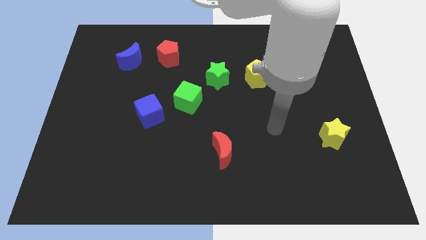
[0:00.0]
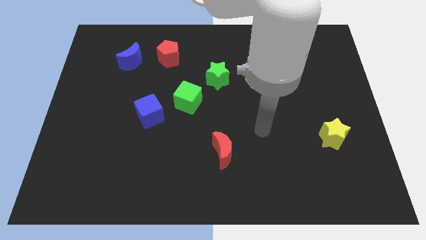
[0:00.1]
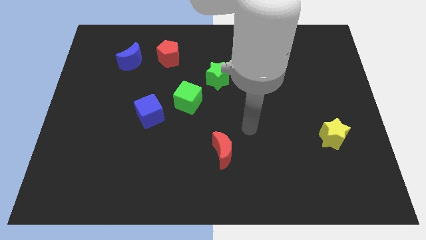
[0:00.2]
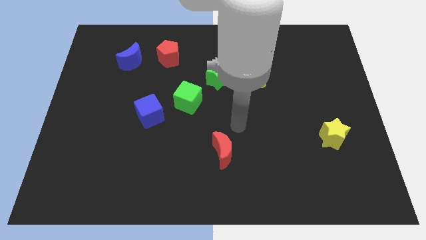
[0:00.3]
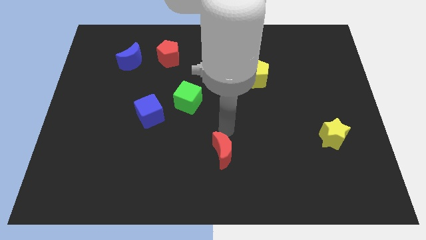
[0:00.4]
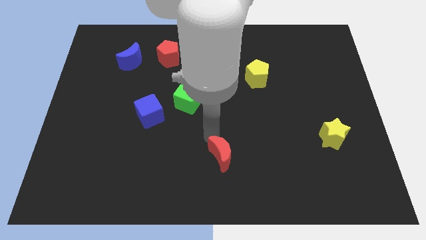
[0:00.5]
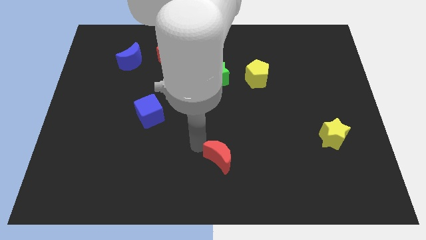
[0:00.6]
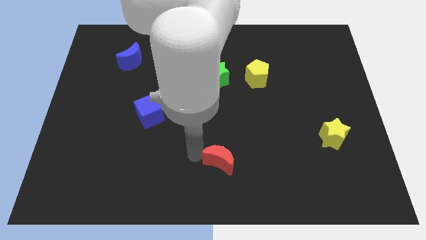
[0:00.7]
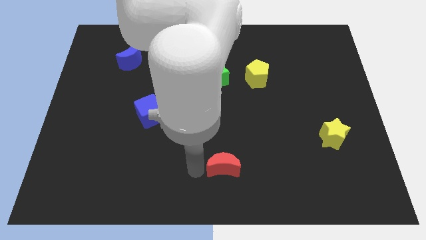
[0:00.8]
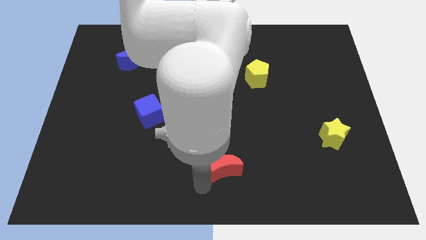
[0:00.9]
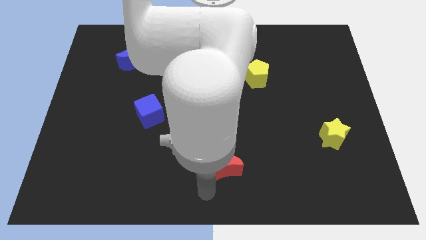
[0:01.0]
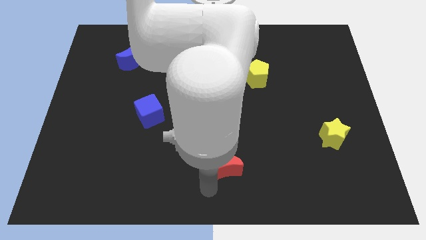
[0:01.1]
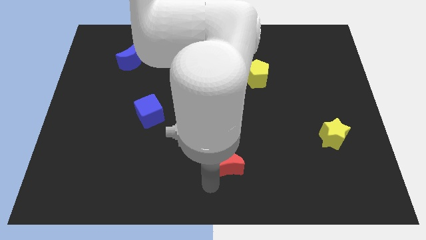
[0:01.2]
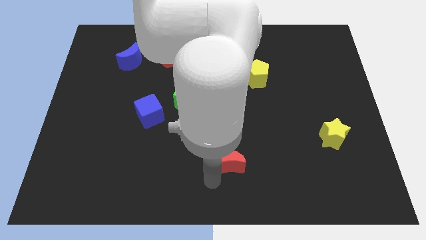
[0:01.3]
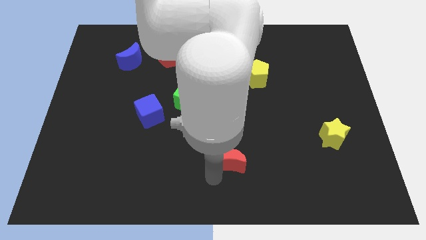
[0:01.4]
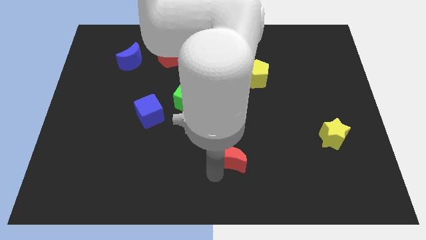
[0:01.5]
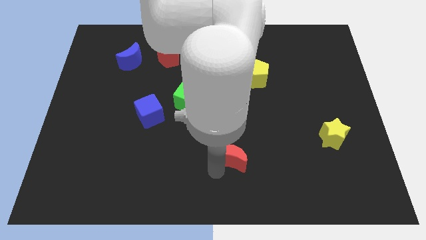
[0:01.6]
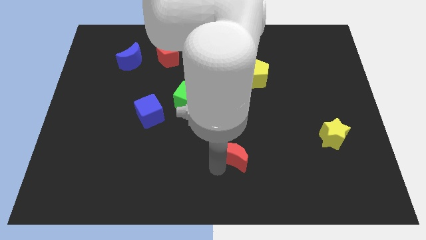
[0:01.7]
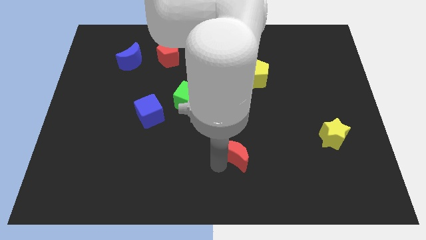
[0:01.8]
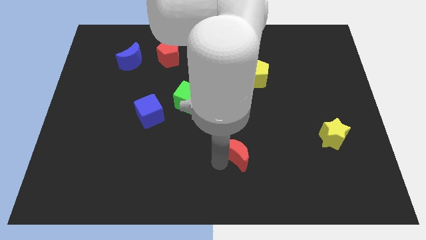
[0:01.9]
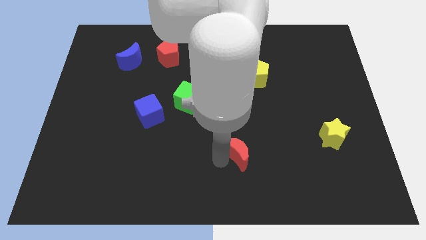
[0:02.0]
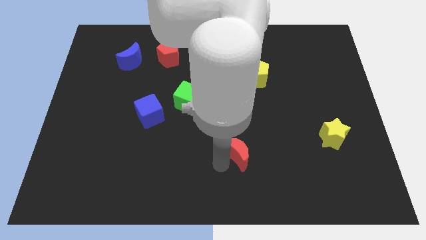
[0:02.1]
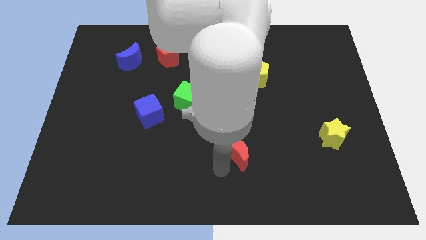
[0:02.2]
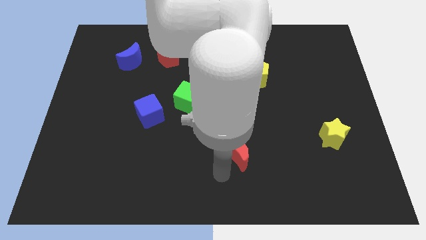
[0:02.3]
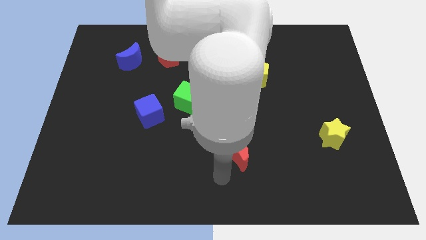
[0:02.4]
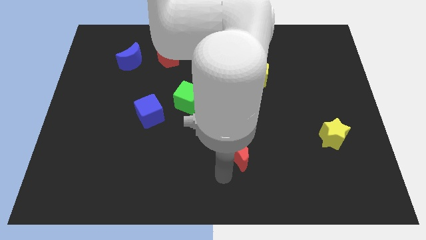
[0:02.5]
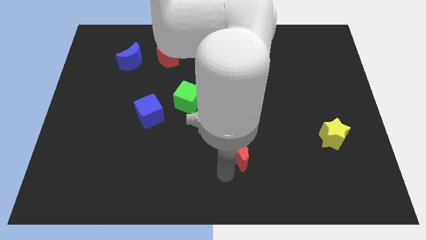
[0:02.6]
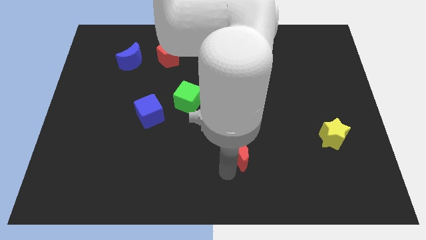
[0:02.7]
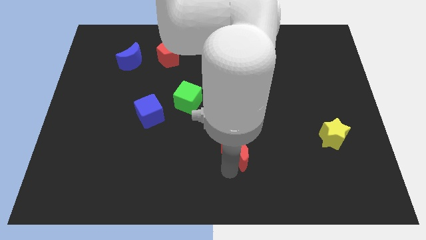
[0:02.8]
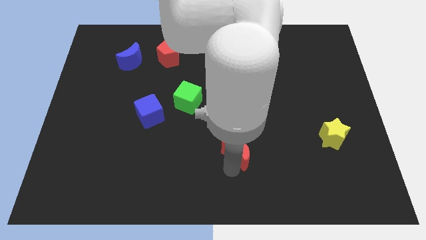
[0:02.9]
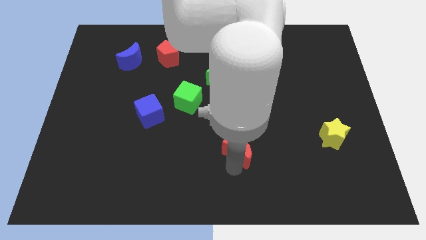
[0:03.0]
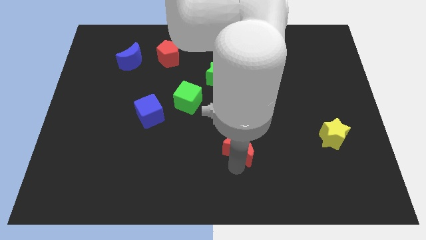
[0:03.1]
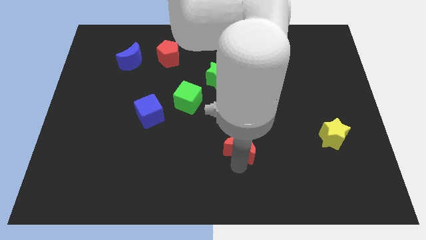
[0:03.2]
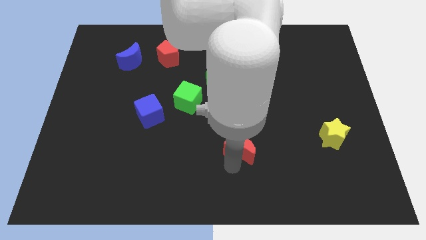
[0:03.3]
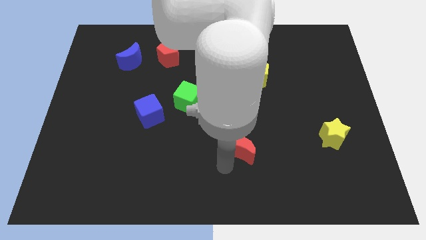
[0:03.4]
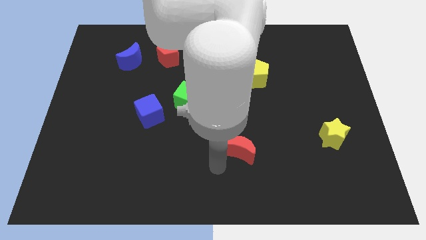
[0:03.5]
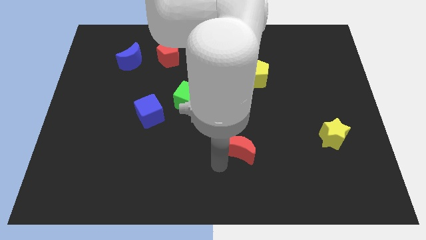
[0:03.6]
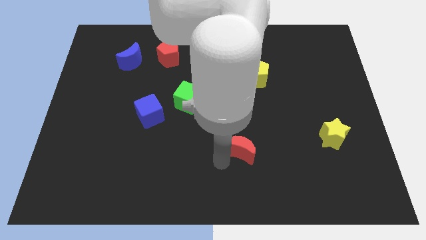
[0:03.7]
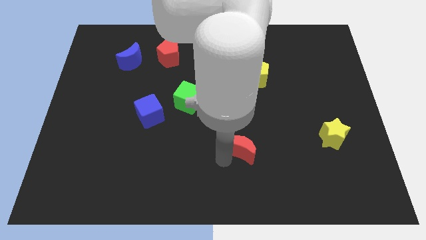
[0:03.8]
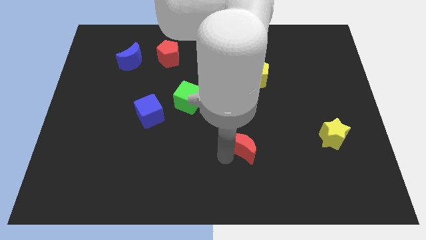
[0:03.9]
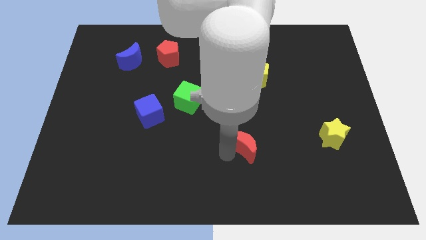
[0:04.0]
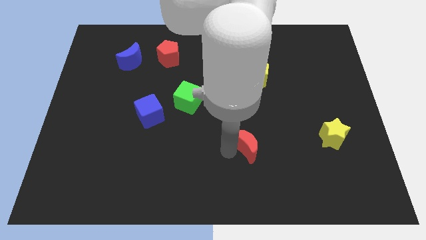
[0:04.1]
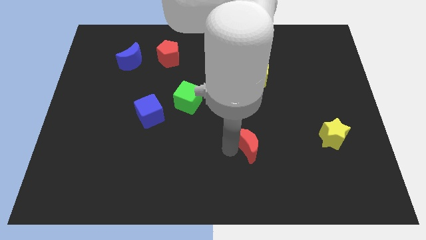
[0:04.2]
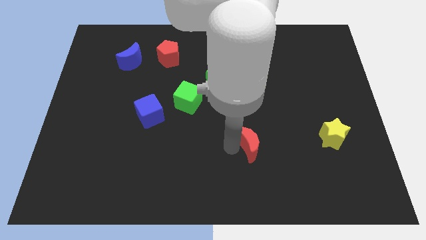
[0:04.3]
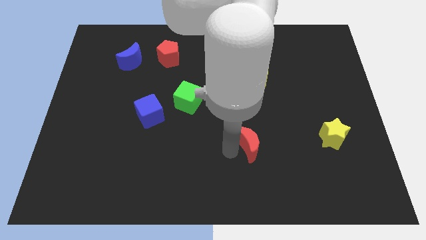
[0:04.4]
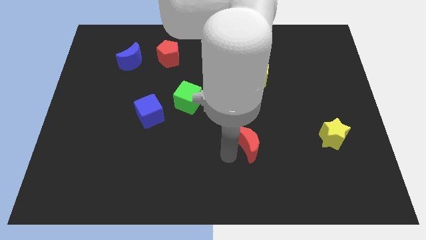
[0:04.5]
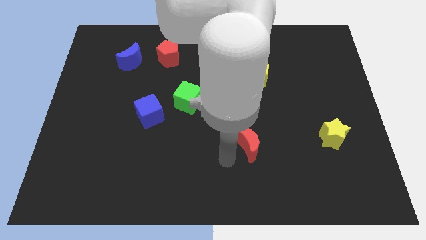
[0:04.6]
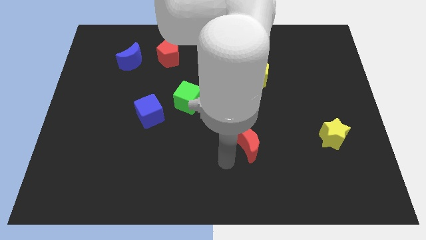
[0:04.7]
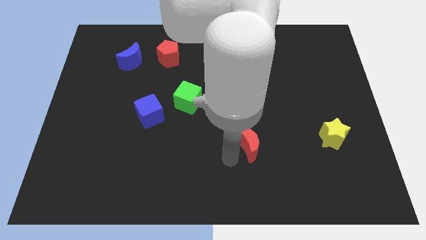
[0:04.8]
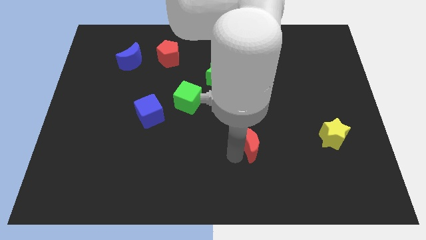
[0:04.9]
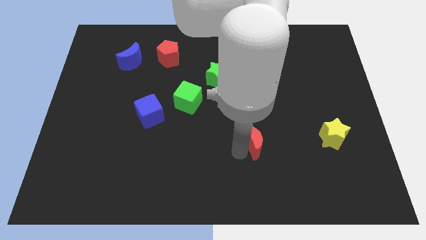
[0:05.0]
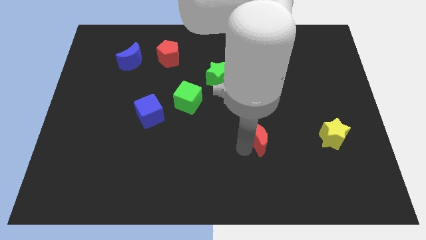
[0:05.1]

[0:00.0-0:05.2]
push the red moon diagonally upwards and to the right somewhat

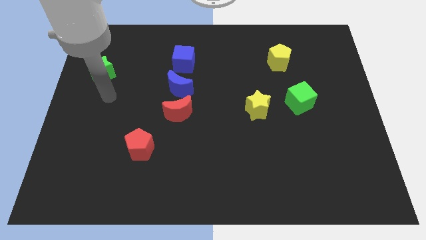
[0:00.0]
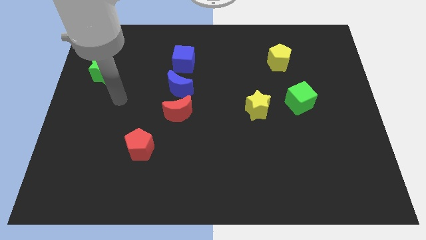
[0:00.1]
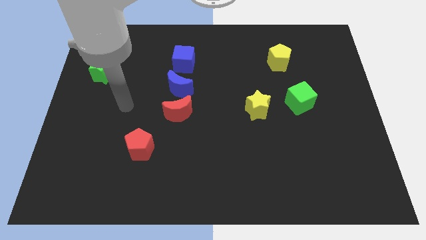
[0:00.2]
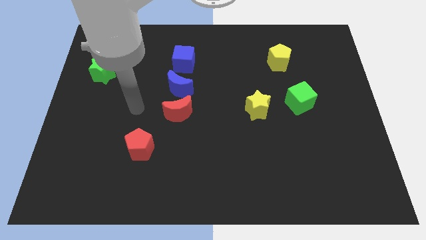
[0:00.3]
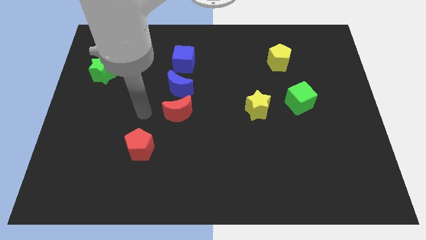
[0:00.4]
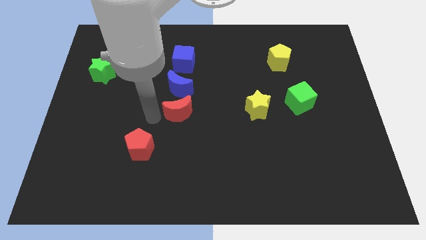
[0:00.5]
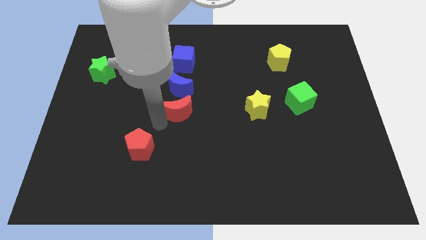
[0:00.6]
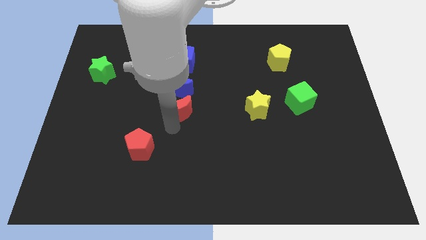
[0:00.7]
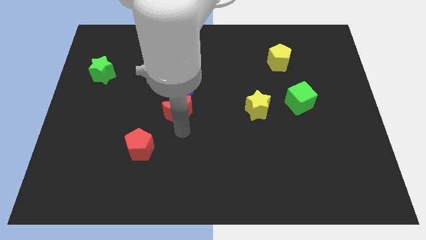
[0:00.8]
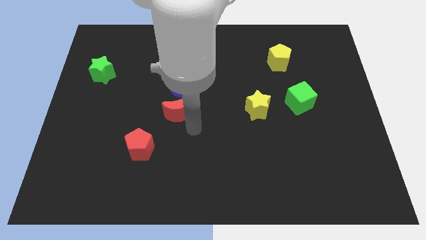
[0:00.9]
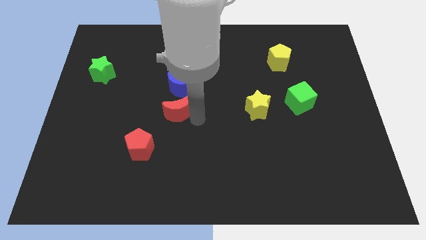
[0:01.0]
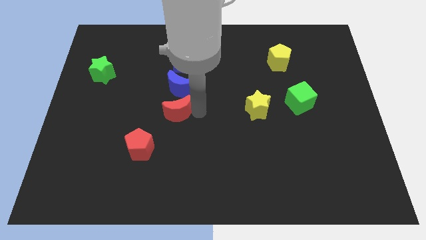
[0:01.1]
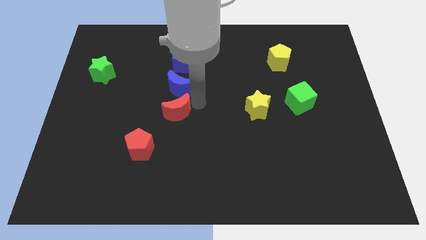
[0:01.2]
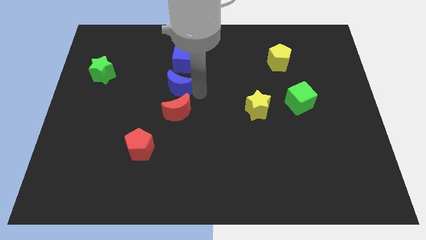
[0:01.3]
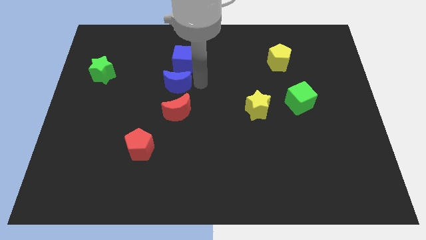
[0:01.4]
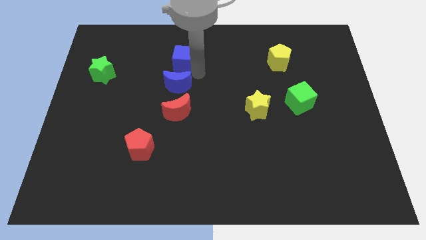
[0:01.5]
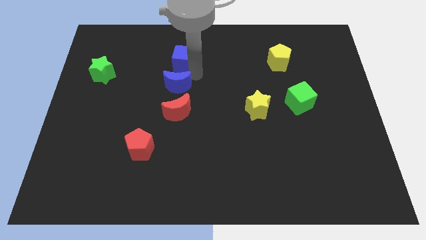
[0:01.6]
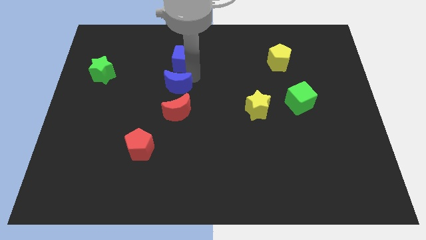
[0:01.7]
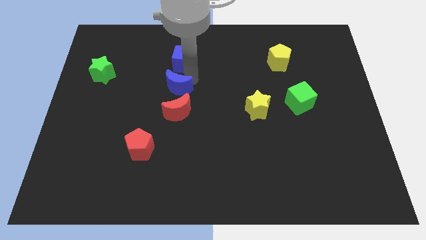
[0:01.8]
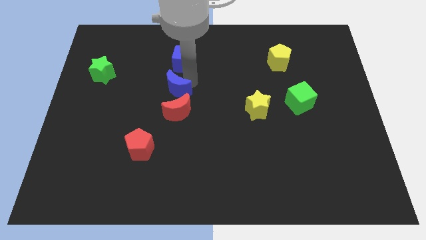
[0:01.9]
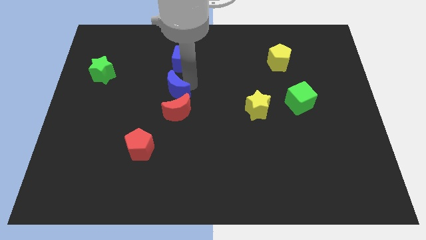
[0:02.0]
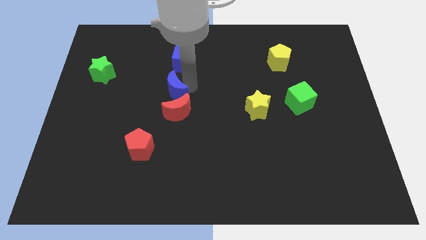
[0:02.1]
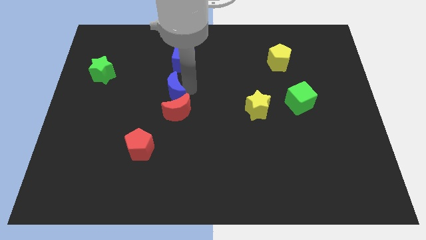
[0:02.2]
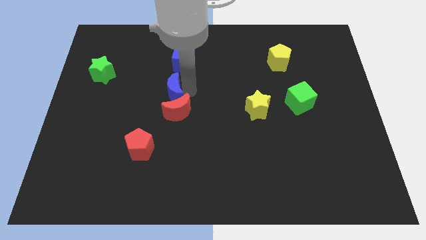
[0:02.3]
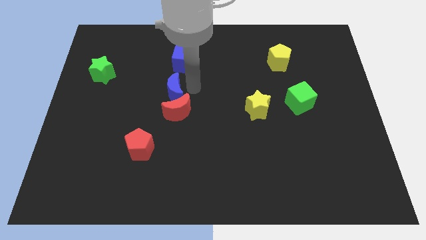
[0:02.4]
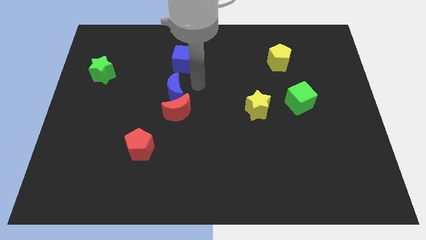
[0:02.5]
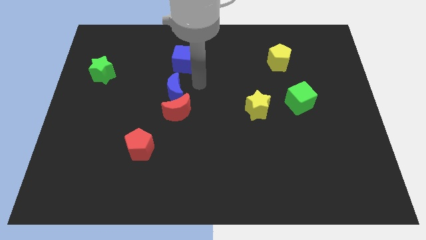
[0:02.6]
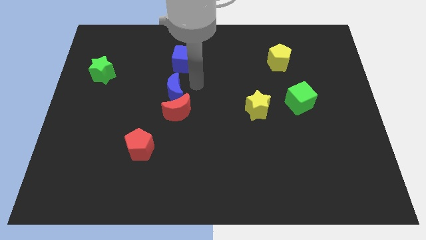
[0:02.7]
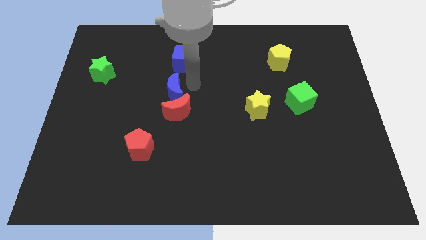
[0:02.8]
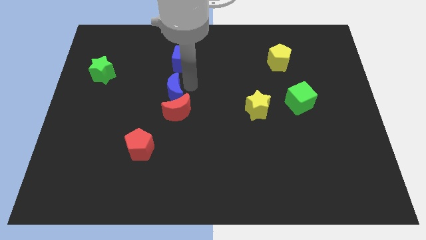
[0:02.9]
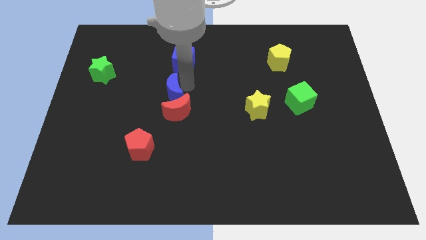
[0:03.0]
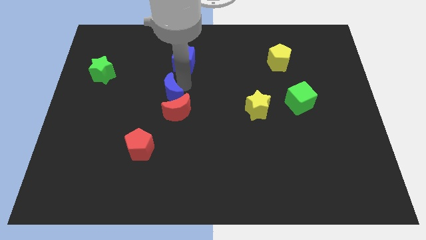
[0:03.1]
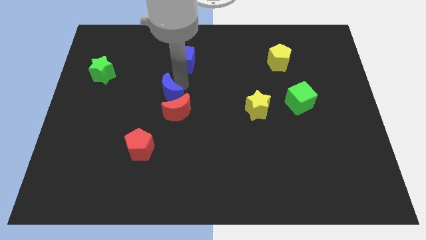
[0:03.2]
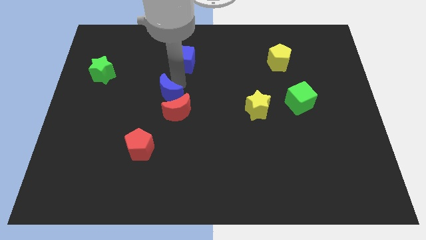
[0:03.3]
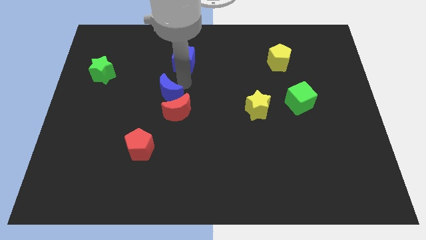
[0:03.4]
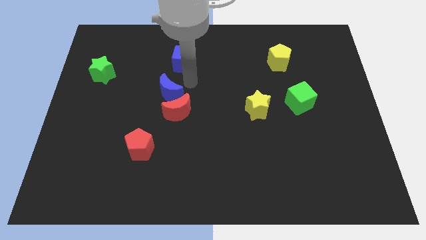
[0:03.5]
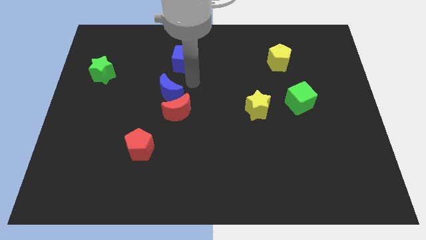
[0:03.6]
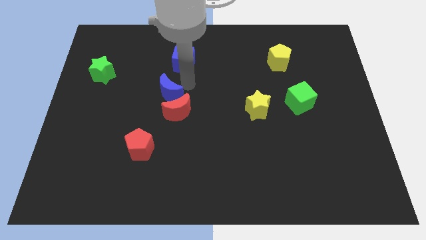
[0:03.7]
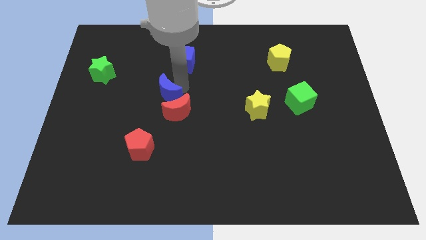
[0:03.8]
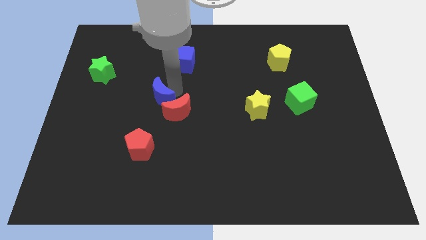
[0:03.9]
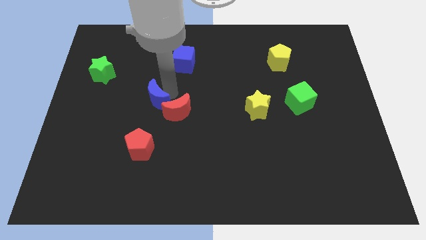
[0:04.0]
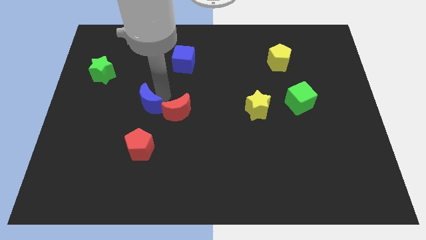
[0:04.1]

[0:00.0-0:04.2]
slightly push the blue moon down and then to the left
